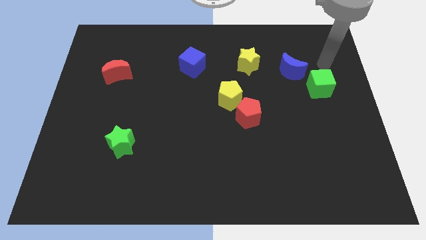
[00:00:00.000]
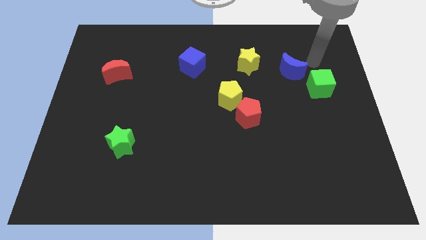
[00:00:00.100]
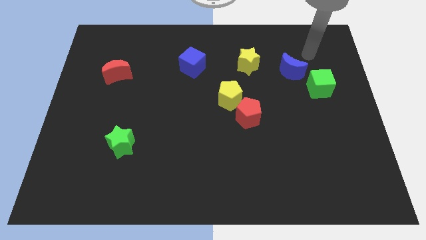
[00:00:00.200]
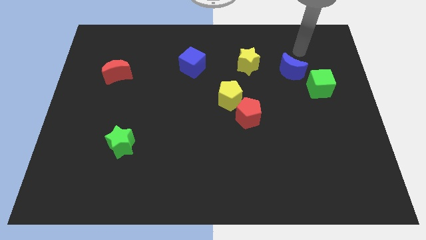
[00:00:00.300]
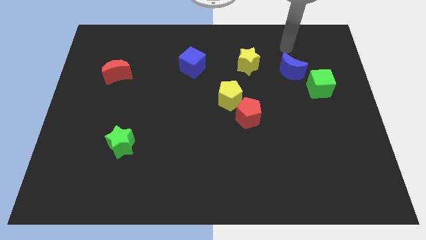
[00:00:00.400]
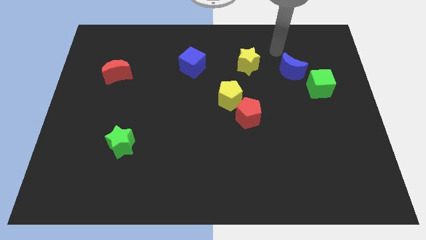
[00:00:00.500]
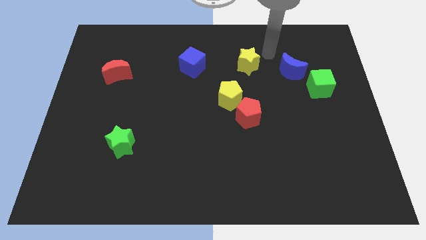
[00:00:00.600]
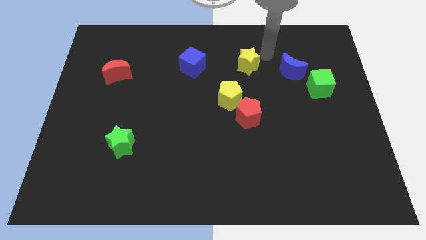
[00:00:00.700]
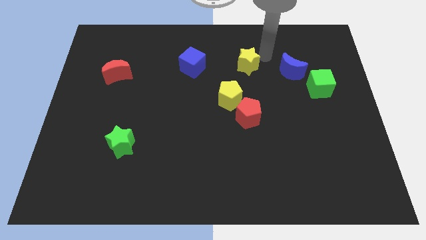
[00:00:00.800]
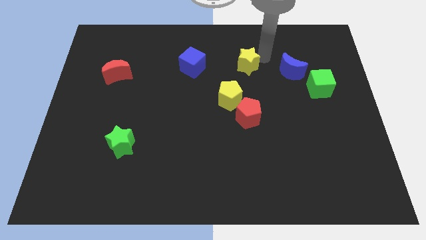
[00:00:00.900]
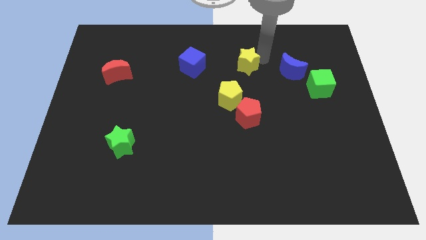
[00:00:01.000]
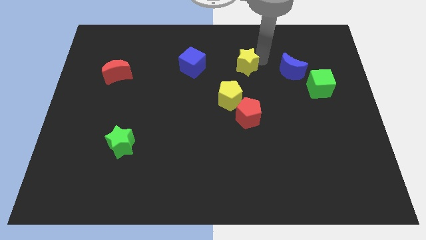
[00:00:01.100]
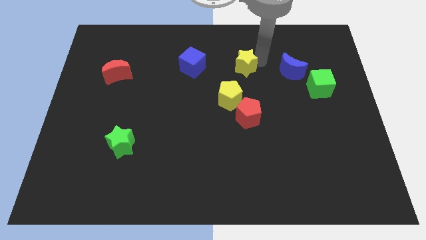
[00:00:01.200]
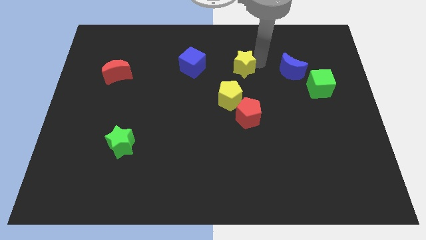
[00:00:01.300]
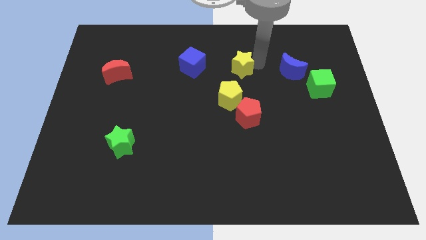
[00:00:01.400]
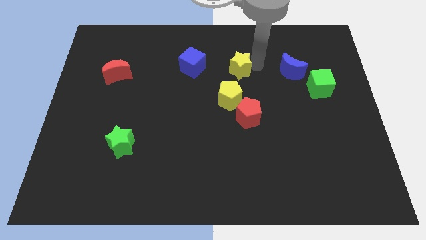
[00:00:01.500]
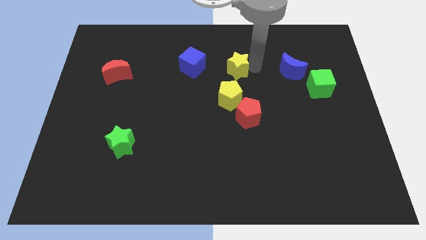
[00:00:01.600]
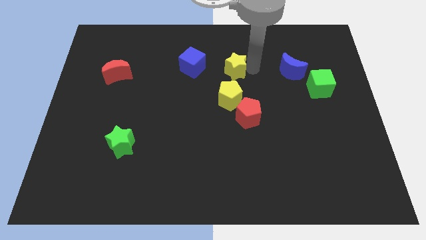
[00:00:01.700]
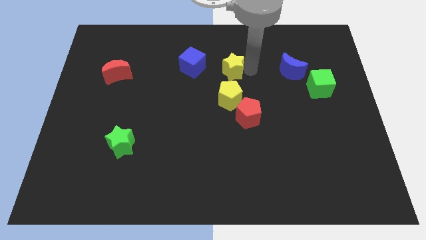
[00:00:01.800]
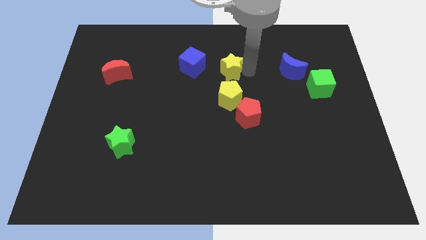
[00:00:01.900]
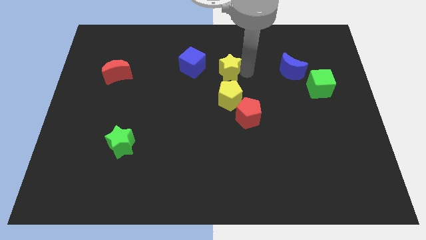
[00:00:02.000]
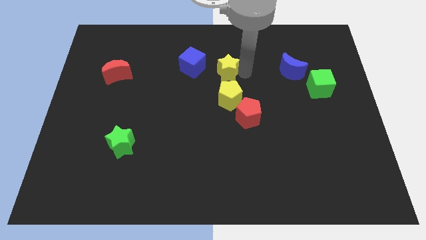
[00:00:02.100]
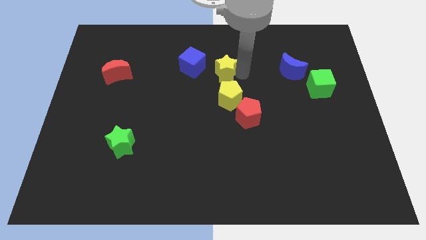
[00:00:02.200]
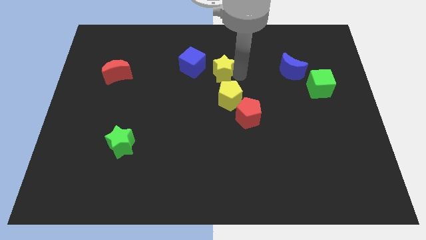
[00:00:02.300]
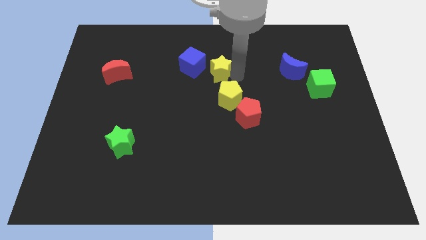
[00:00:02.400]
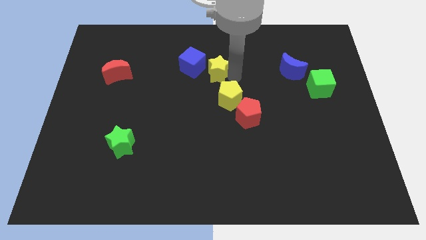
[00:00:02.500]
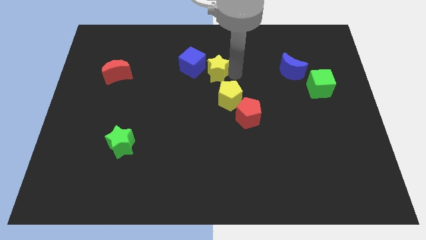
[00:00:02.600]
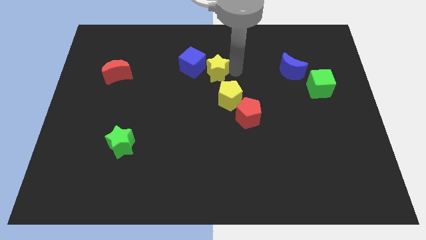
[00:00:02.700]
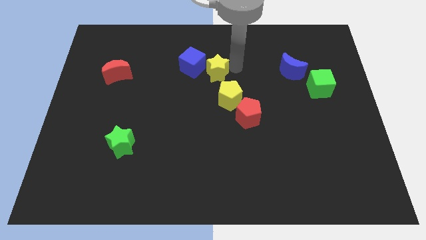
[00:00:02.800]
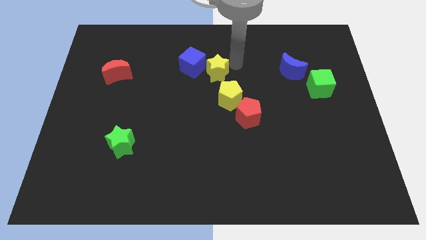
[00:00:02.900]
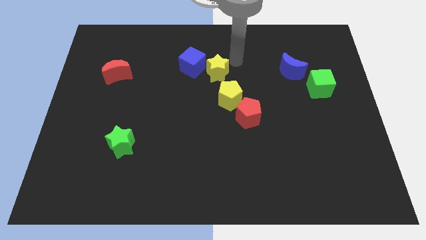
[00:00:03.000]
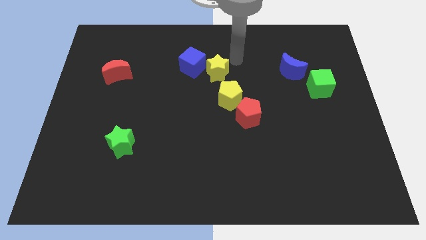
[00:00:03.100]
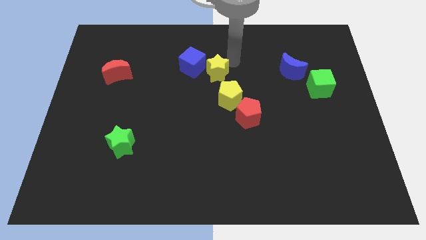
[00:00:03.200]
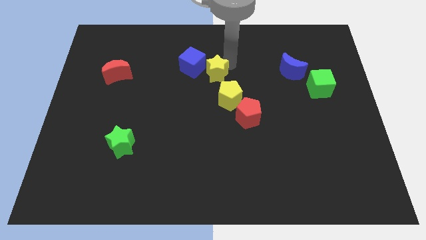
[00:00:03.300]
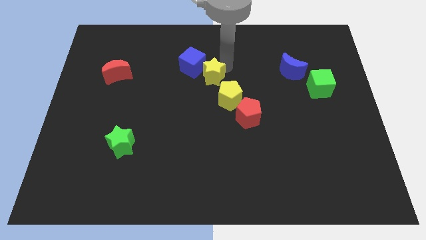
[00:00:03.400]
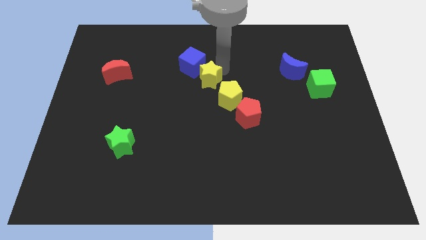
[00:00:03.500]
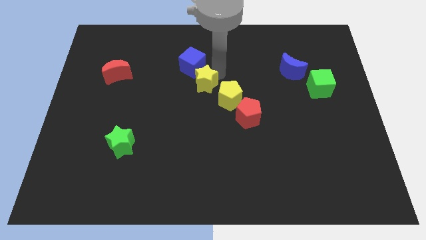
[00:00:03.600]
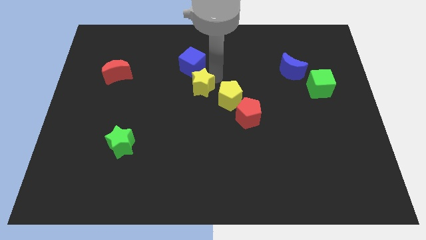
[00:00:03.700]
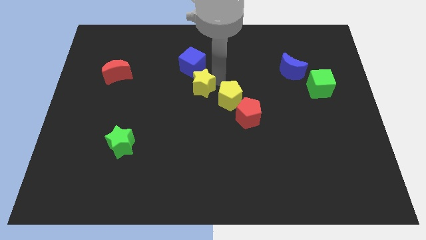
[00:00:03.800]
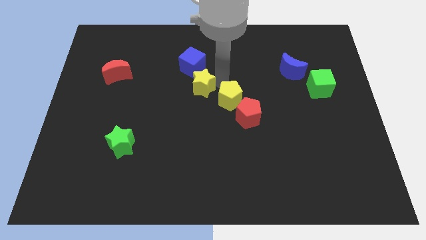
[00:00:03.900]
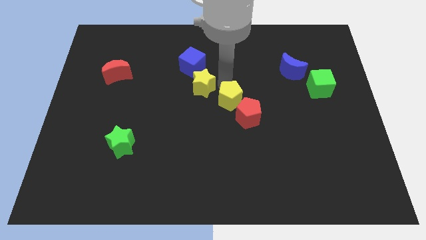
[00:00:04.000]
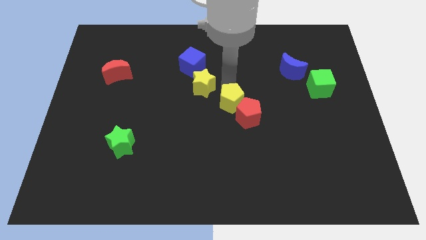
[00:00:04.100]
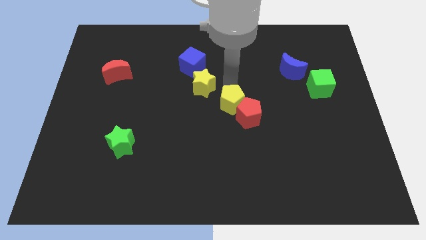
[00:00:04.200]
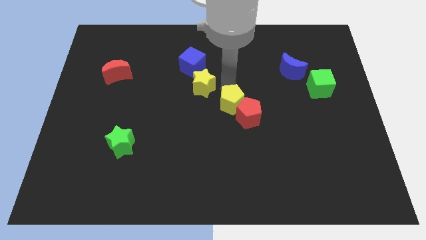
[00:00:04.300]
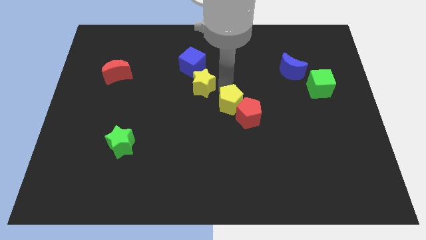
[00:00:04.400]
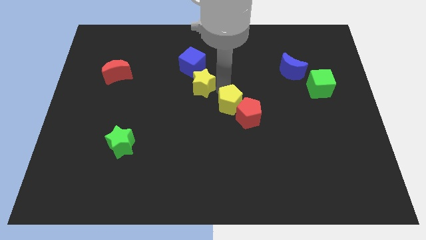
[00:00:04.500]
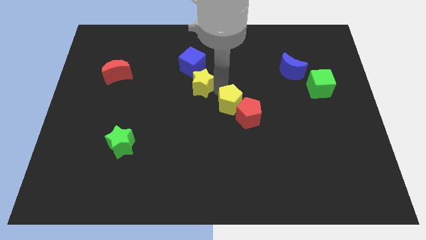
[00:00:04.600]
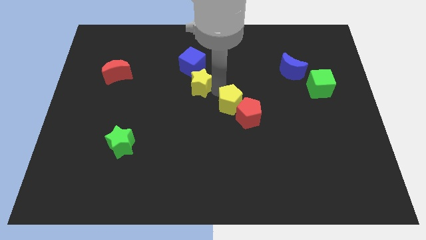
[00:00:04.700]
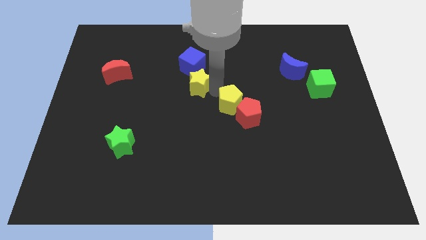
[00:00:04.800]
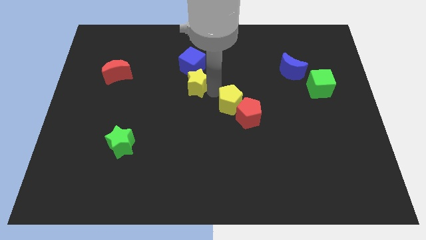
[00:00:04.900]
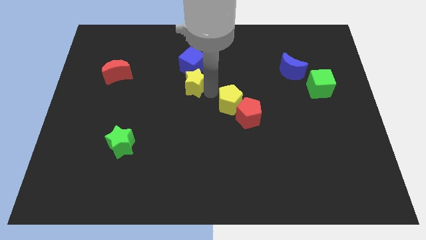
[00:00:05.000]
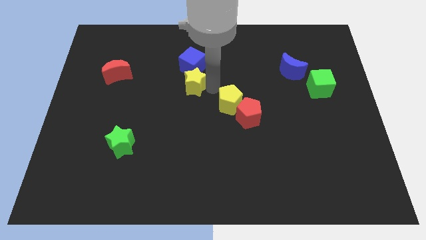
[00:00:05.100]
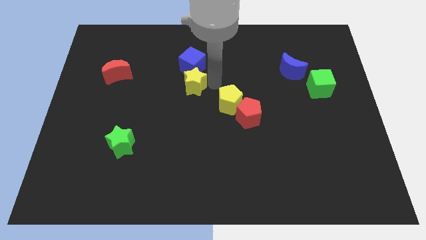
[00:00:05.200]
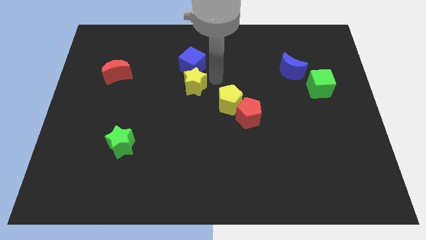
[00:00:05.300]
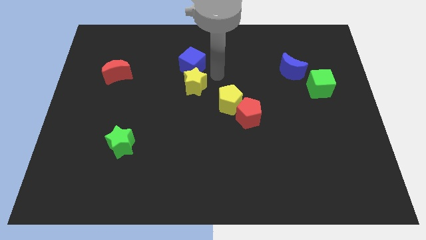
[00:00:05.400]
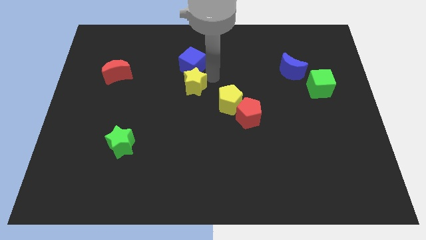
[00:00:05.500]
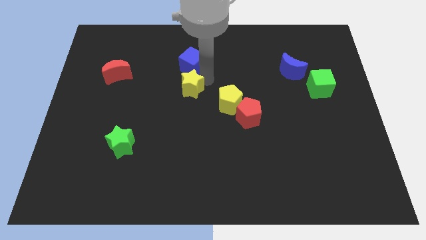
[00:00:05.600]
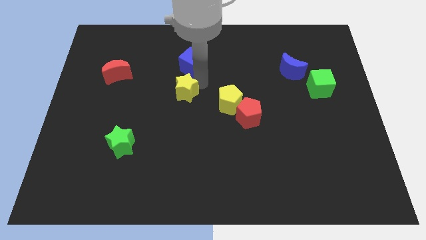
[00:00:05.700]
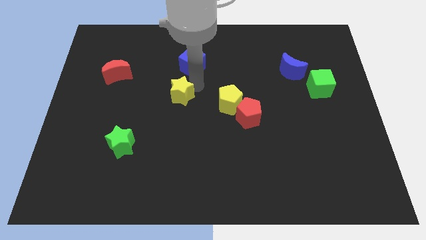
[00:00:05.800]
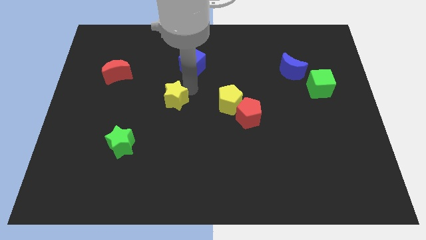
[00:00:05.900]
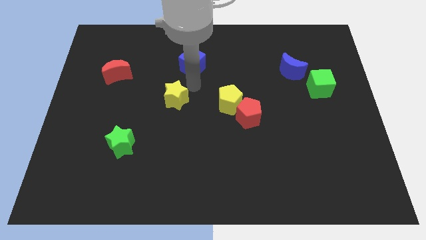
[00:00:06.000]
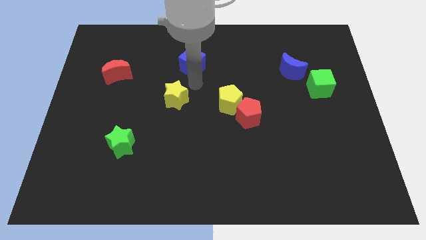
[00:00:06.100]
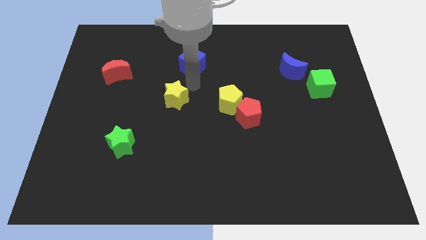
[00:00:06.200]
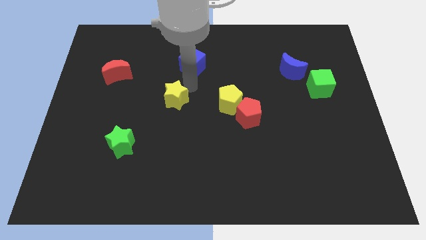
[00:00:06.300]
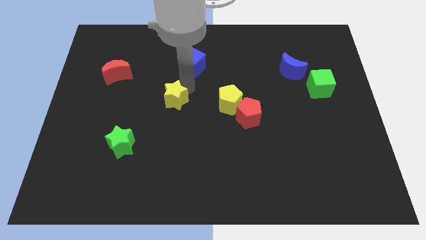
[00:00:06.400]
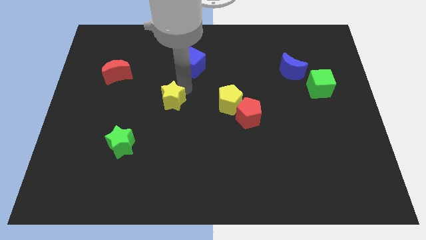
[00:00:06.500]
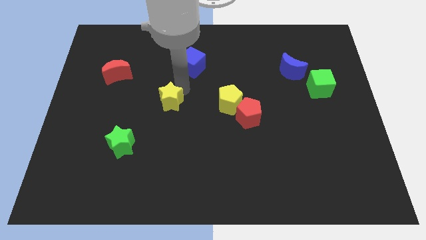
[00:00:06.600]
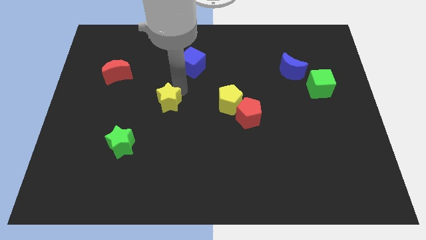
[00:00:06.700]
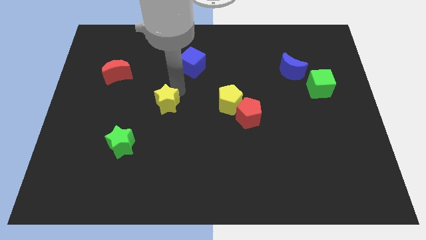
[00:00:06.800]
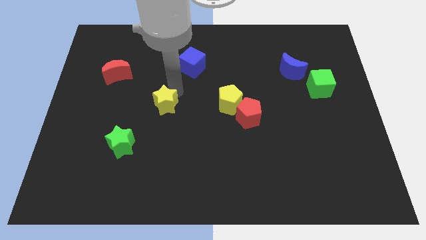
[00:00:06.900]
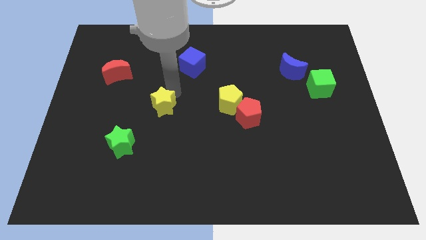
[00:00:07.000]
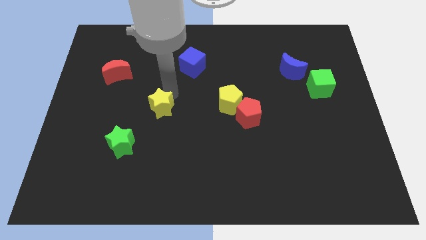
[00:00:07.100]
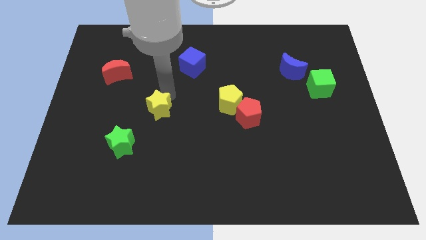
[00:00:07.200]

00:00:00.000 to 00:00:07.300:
put the yellow star diagonally up and to the right of the green star
